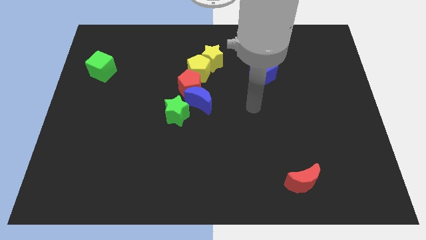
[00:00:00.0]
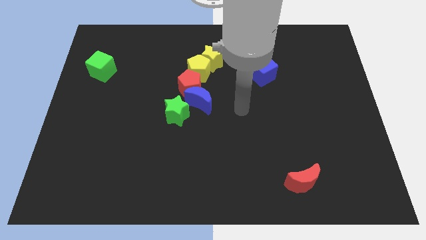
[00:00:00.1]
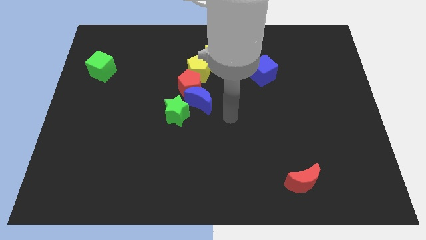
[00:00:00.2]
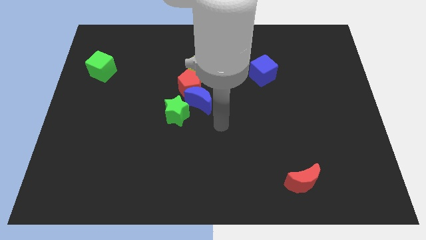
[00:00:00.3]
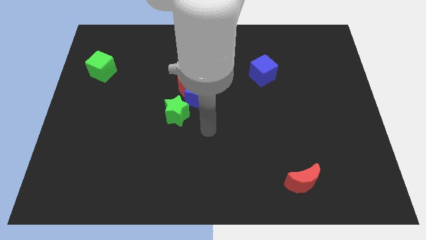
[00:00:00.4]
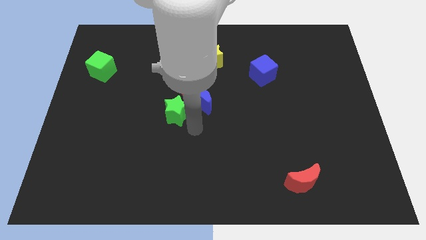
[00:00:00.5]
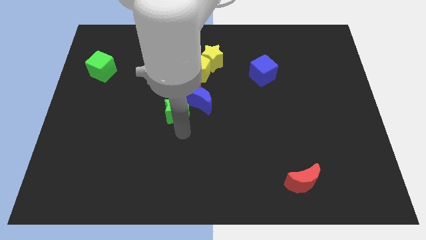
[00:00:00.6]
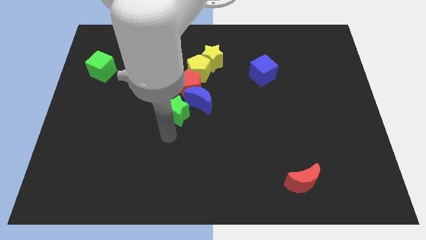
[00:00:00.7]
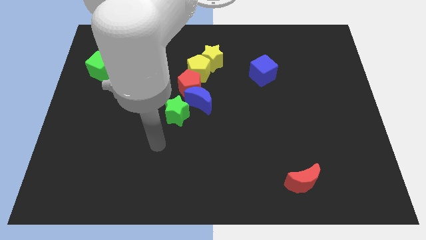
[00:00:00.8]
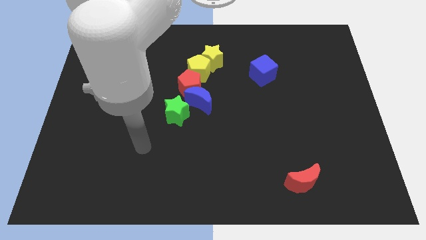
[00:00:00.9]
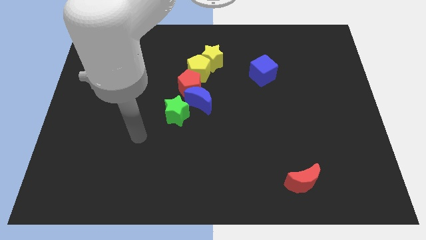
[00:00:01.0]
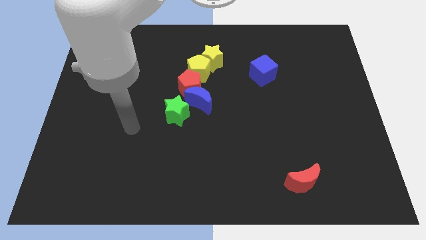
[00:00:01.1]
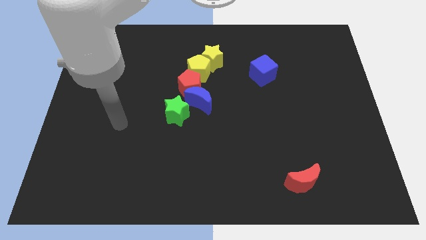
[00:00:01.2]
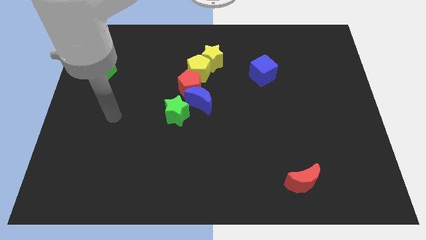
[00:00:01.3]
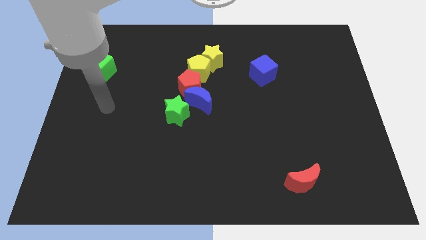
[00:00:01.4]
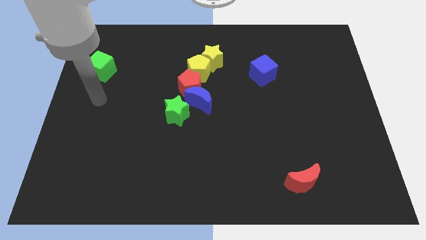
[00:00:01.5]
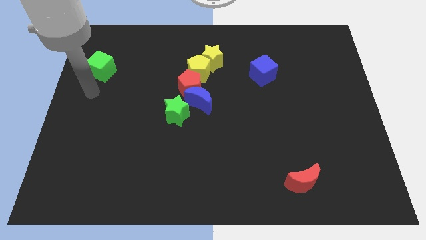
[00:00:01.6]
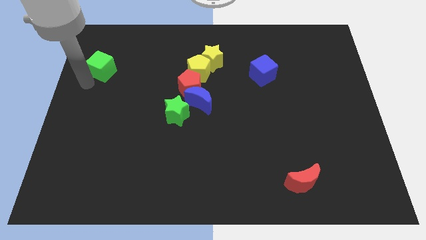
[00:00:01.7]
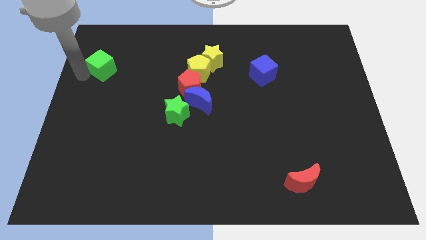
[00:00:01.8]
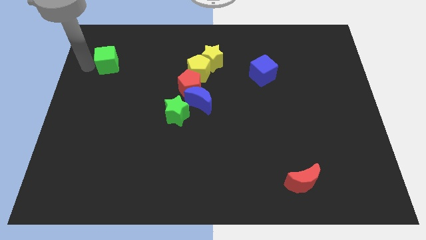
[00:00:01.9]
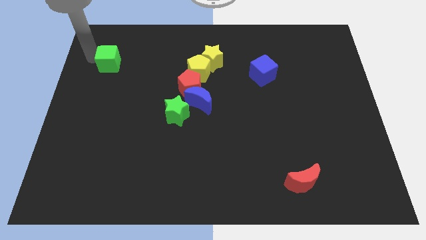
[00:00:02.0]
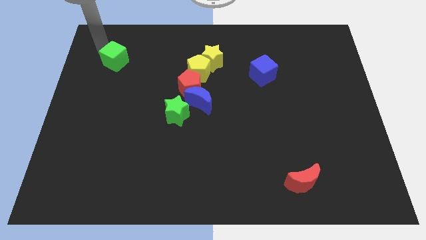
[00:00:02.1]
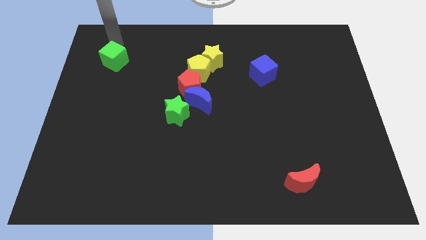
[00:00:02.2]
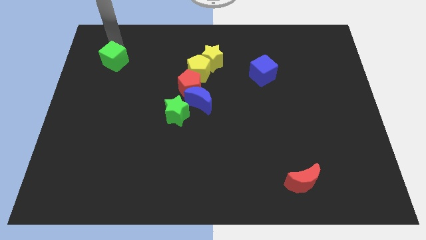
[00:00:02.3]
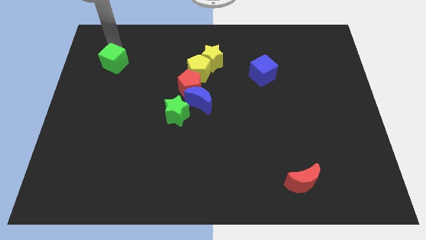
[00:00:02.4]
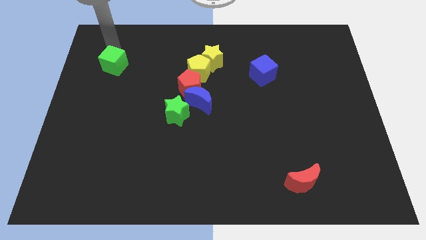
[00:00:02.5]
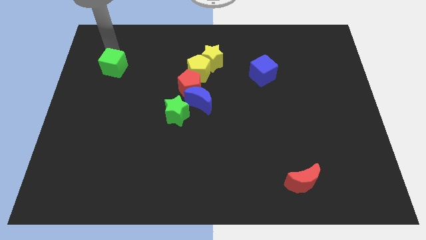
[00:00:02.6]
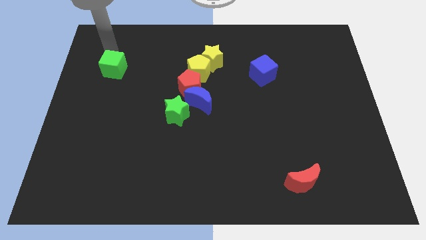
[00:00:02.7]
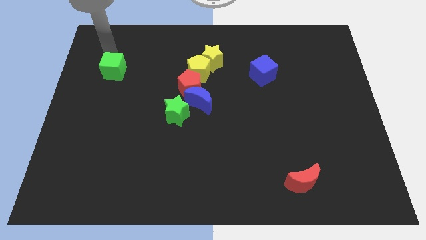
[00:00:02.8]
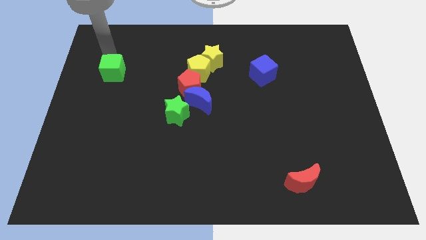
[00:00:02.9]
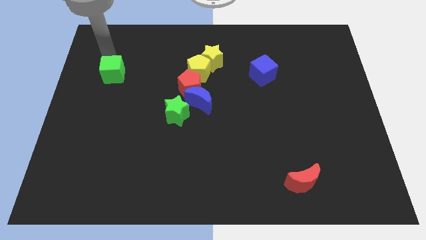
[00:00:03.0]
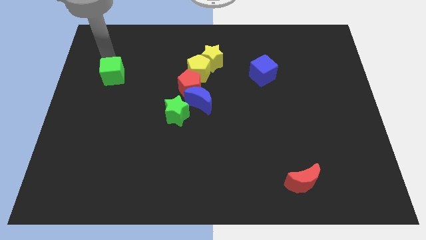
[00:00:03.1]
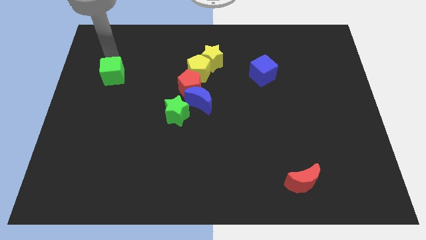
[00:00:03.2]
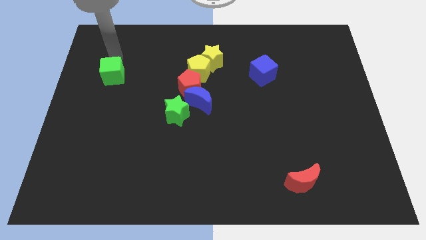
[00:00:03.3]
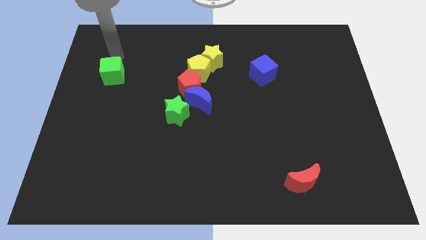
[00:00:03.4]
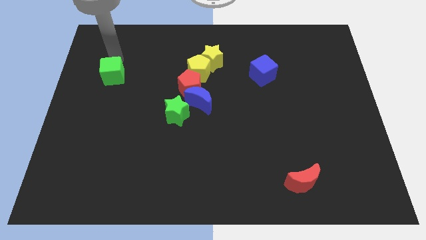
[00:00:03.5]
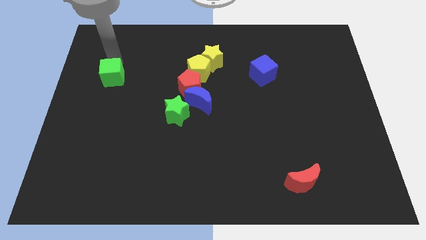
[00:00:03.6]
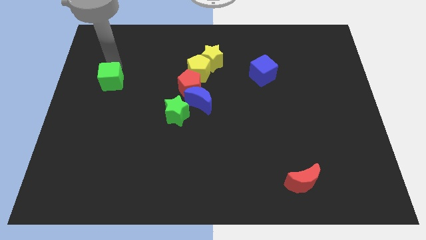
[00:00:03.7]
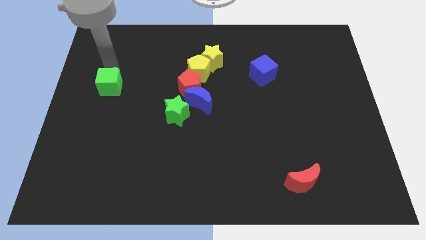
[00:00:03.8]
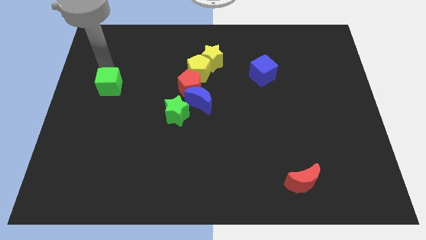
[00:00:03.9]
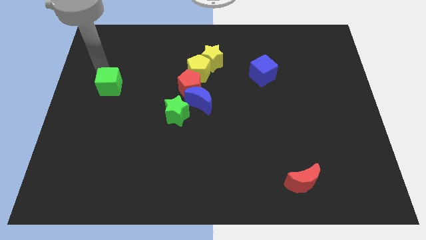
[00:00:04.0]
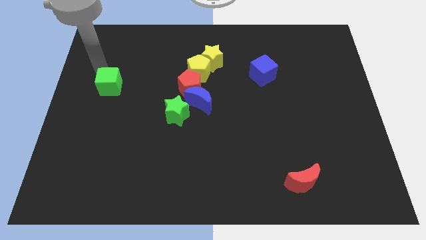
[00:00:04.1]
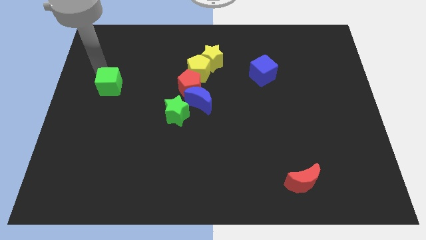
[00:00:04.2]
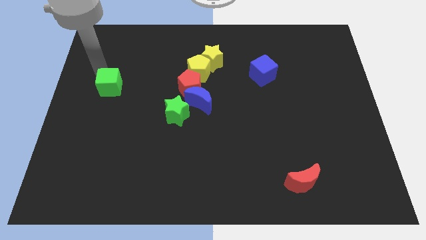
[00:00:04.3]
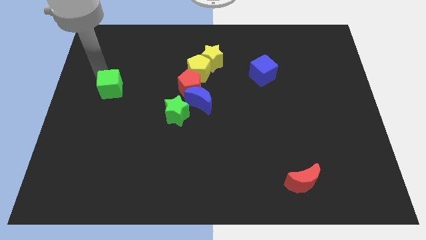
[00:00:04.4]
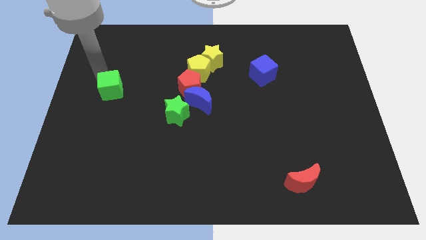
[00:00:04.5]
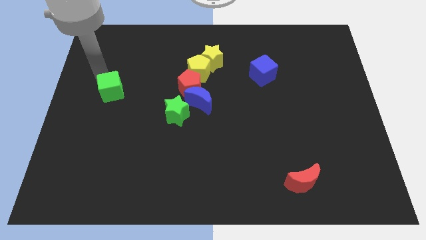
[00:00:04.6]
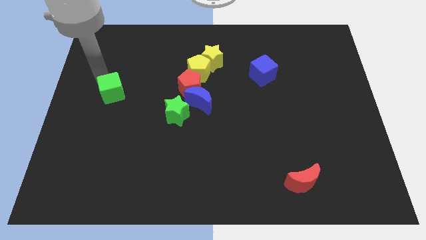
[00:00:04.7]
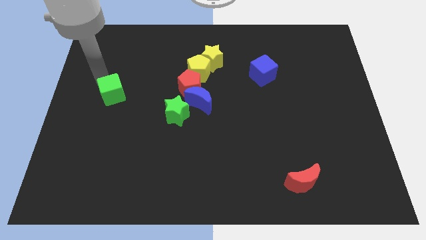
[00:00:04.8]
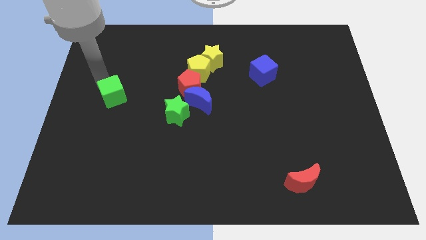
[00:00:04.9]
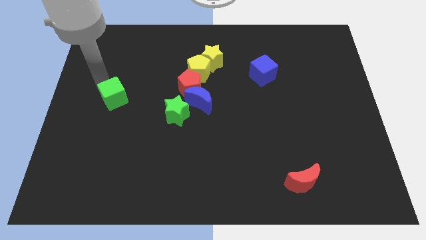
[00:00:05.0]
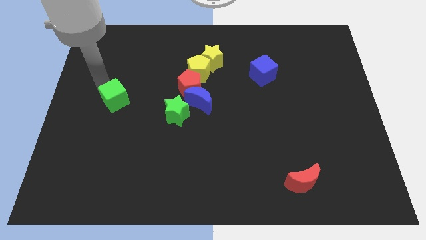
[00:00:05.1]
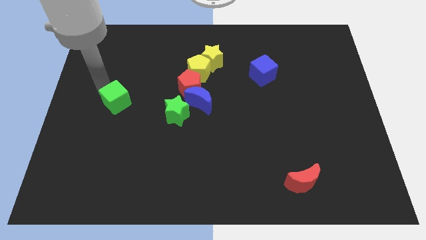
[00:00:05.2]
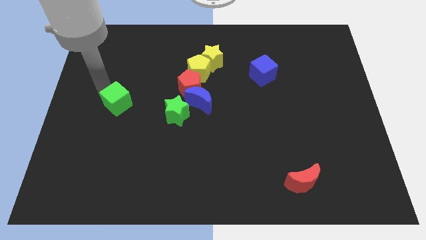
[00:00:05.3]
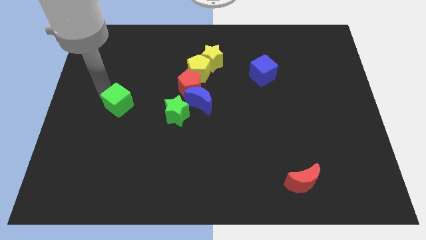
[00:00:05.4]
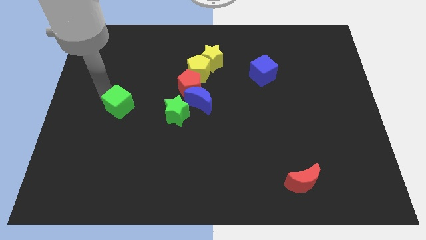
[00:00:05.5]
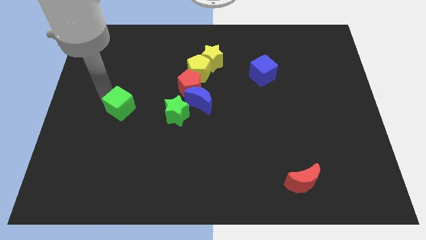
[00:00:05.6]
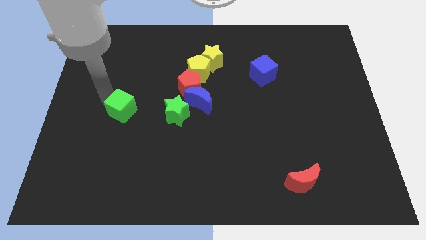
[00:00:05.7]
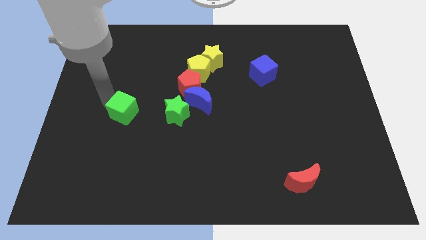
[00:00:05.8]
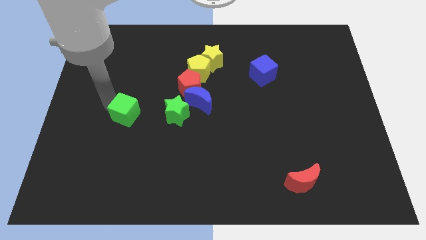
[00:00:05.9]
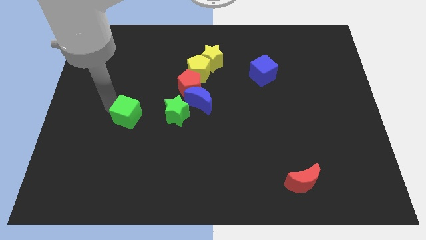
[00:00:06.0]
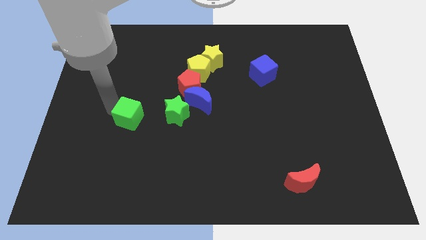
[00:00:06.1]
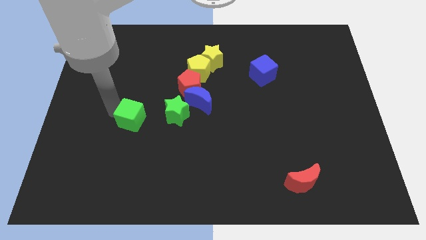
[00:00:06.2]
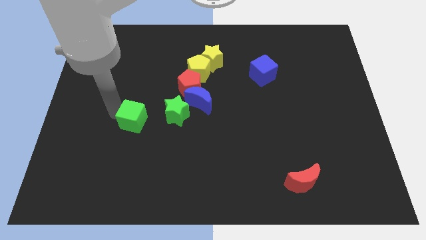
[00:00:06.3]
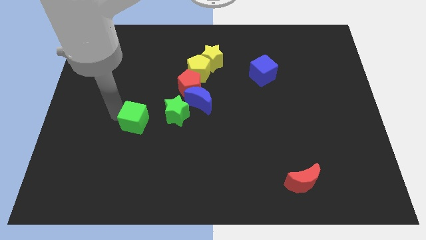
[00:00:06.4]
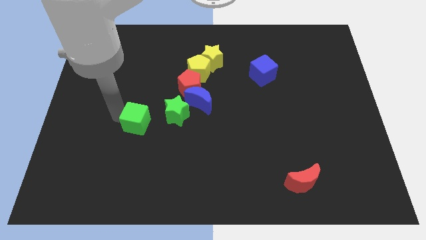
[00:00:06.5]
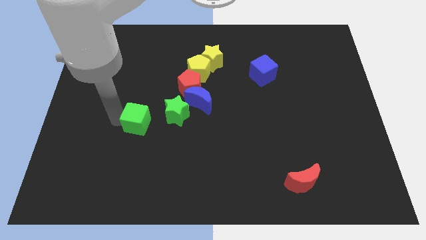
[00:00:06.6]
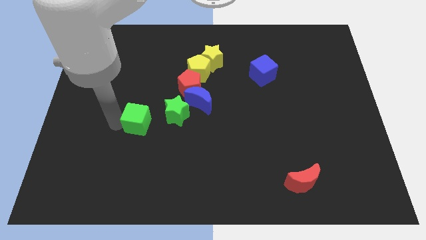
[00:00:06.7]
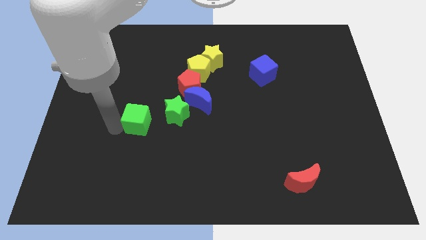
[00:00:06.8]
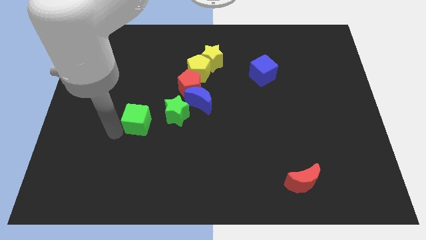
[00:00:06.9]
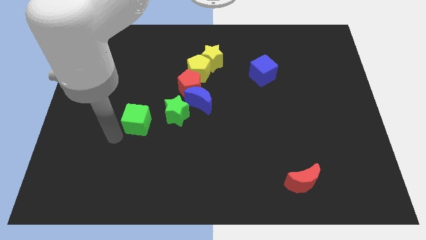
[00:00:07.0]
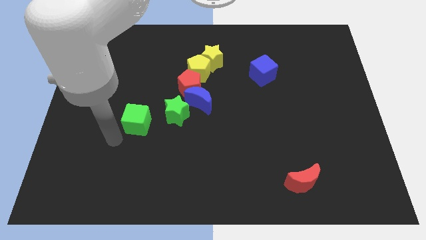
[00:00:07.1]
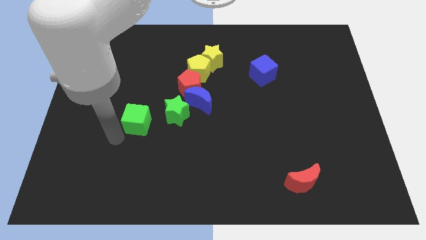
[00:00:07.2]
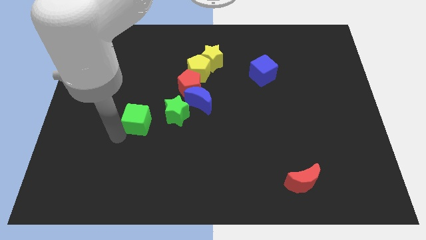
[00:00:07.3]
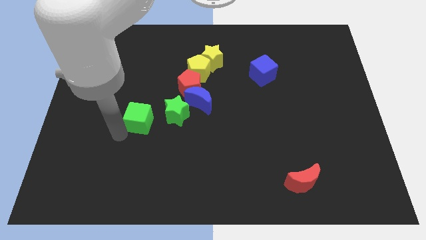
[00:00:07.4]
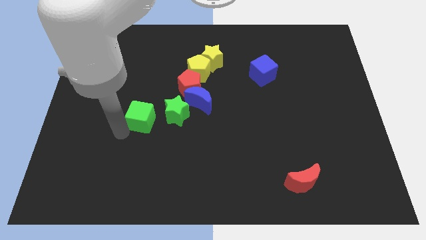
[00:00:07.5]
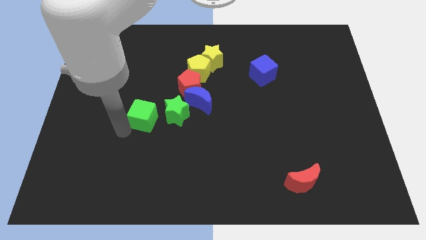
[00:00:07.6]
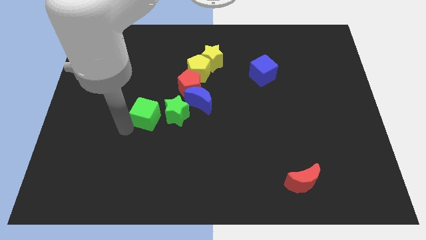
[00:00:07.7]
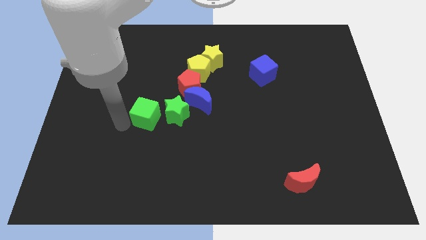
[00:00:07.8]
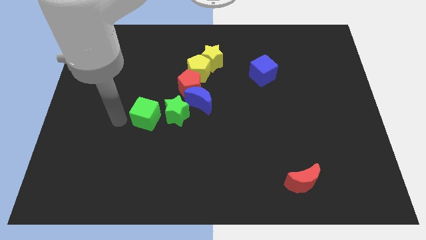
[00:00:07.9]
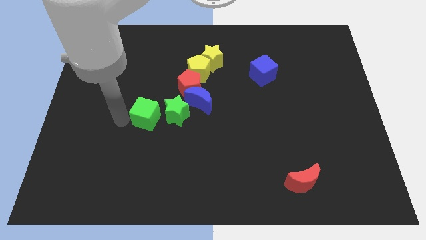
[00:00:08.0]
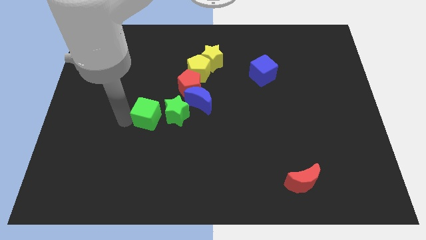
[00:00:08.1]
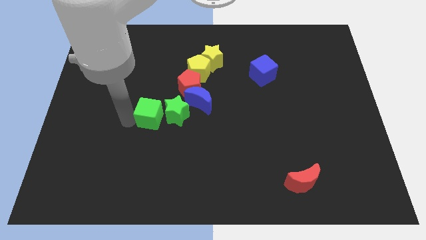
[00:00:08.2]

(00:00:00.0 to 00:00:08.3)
move the green cube next to the green star
